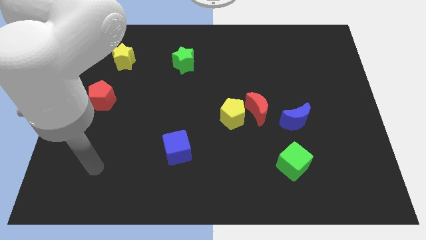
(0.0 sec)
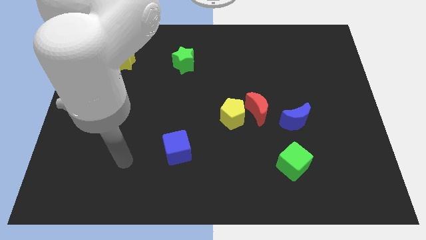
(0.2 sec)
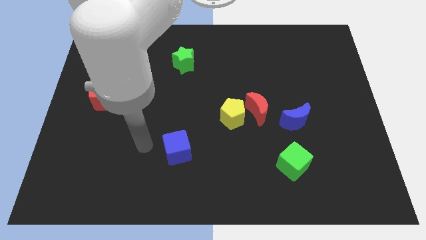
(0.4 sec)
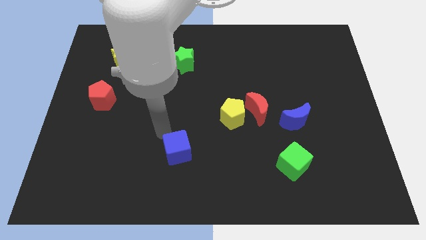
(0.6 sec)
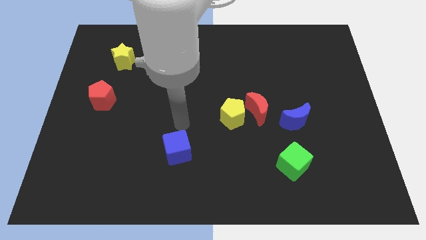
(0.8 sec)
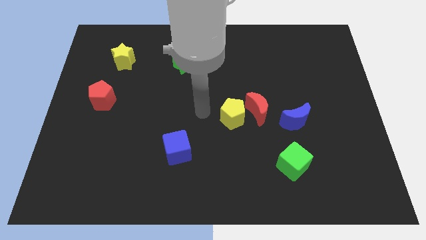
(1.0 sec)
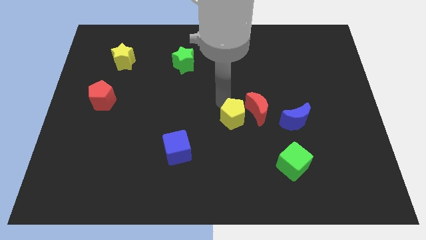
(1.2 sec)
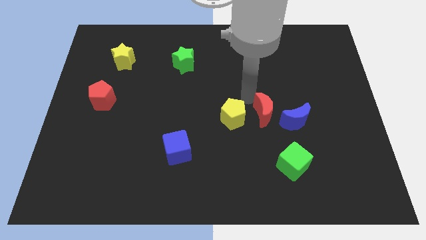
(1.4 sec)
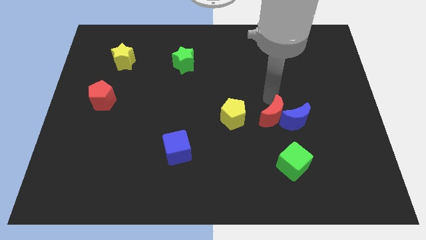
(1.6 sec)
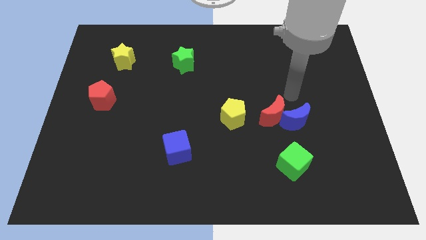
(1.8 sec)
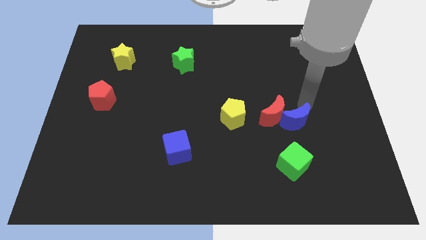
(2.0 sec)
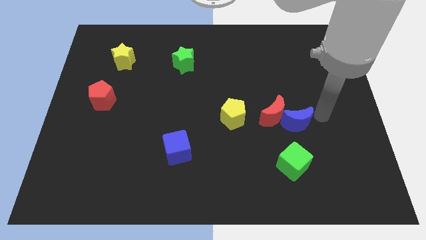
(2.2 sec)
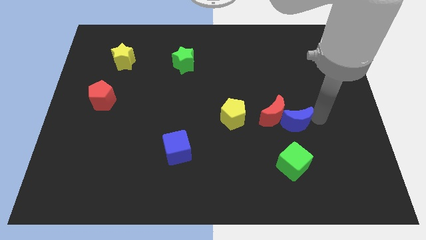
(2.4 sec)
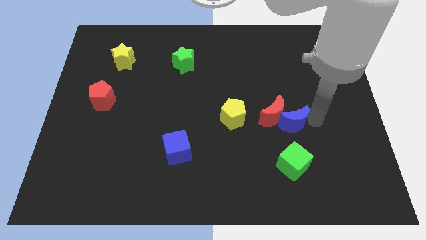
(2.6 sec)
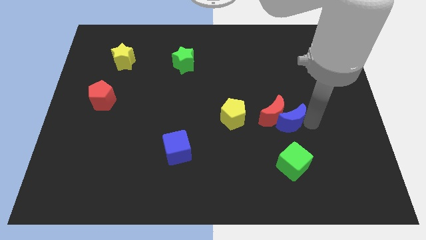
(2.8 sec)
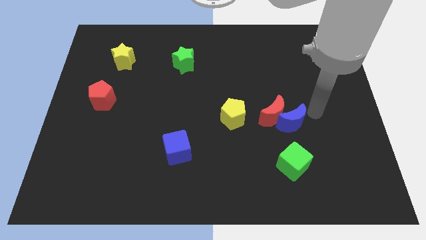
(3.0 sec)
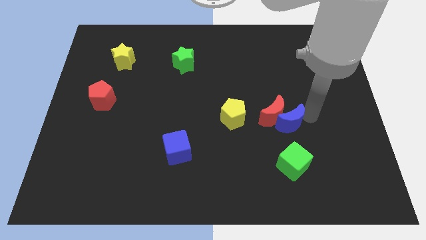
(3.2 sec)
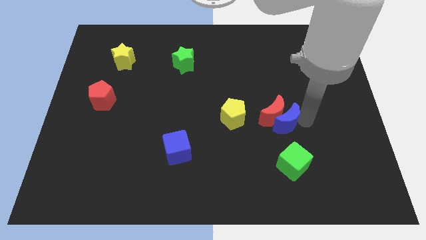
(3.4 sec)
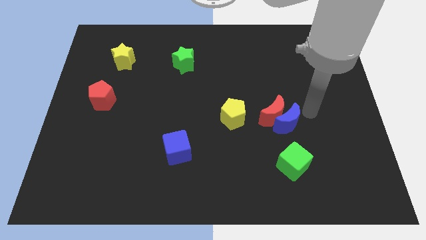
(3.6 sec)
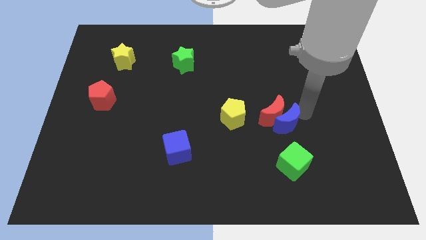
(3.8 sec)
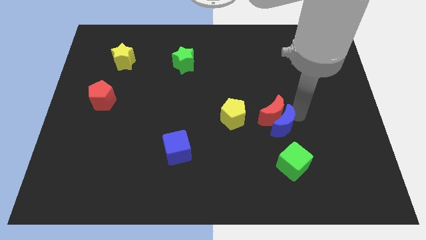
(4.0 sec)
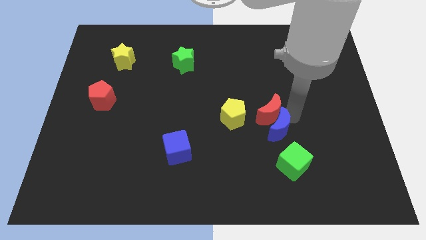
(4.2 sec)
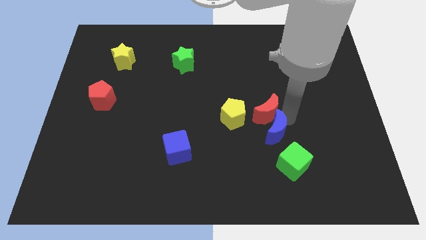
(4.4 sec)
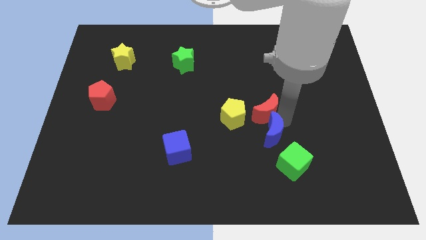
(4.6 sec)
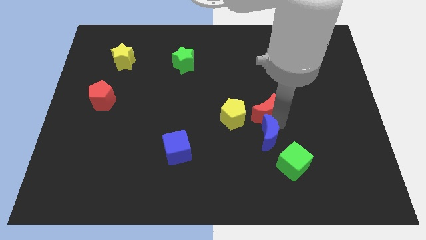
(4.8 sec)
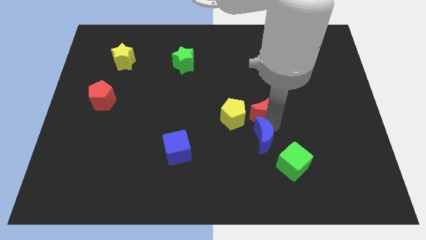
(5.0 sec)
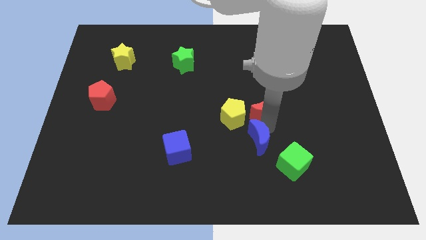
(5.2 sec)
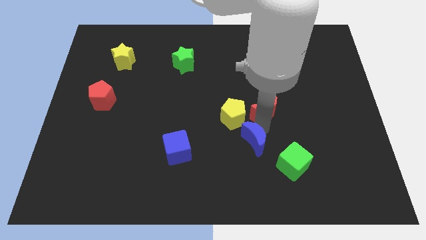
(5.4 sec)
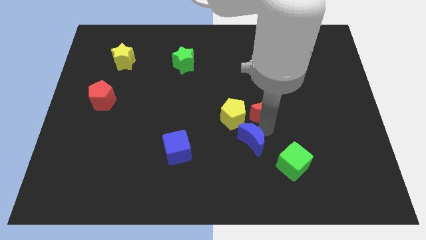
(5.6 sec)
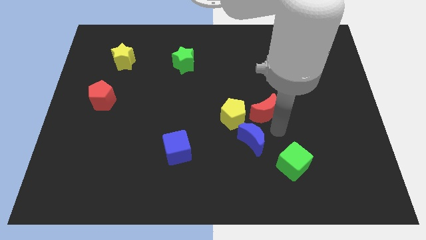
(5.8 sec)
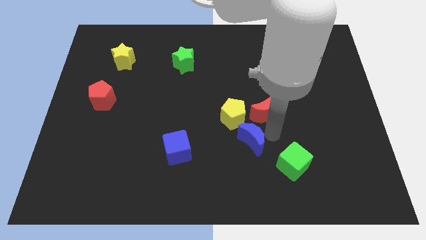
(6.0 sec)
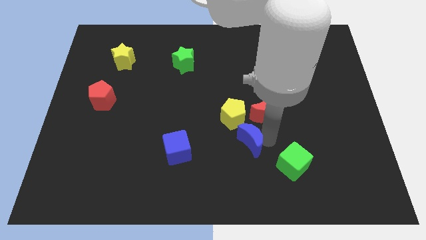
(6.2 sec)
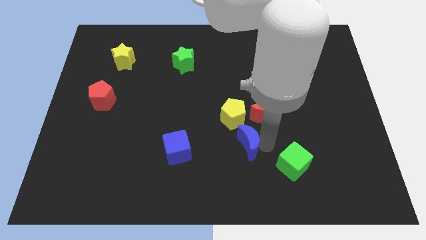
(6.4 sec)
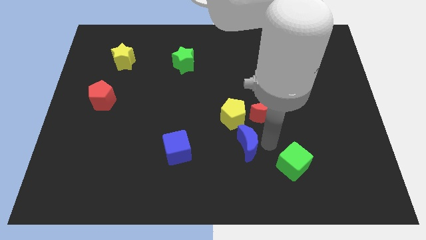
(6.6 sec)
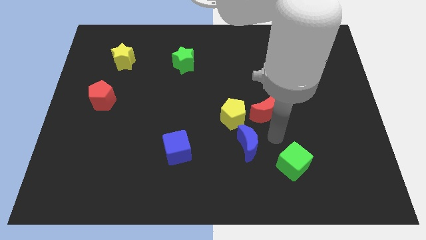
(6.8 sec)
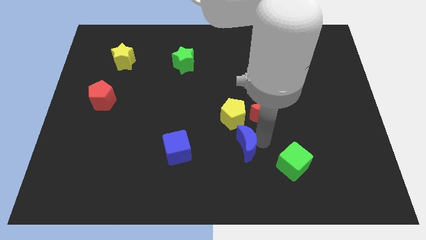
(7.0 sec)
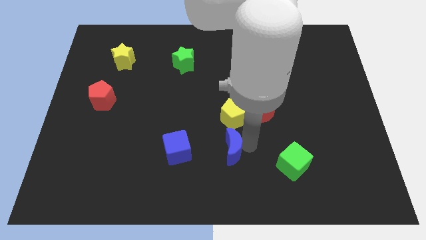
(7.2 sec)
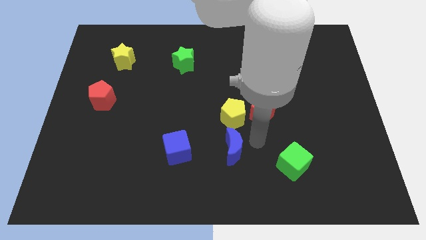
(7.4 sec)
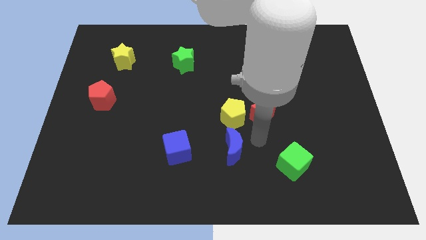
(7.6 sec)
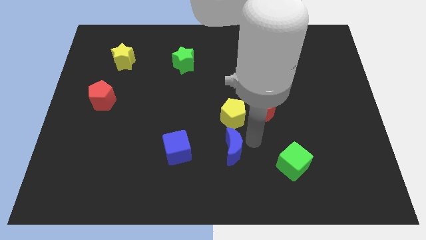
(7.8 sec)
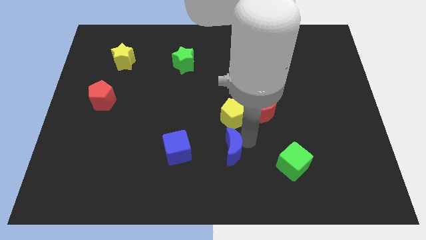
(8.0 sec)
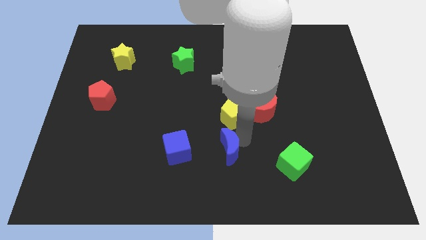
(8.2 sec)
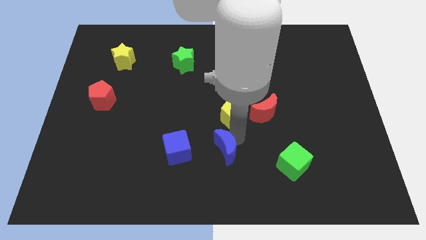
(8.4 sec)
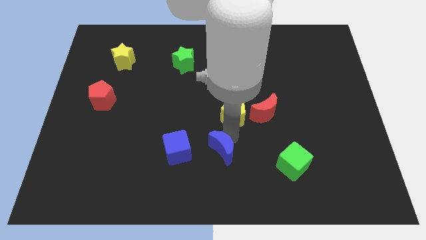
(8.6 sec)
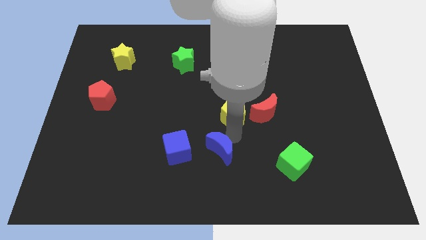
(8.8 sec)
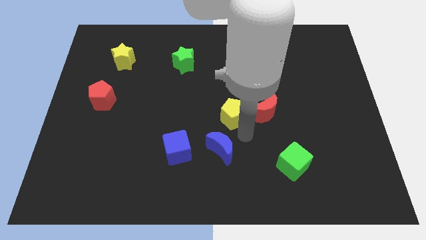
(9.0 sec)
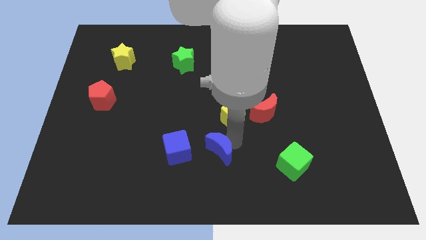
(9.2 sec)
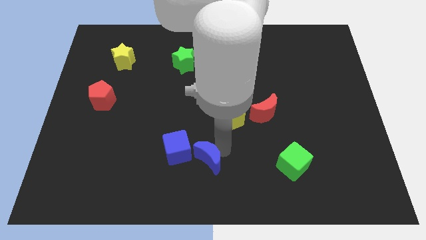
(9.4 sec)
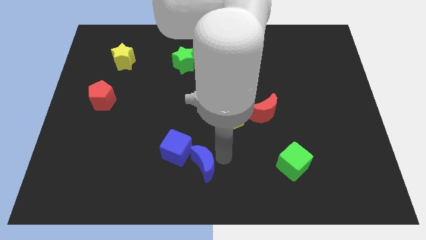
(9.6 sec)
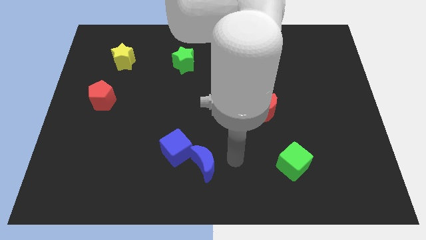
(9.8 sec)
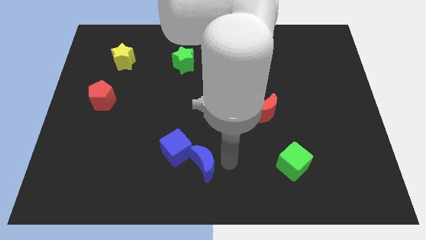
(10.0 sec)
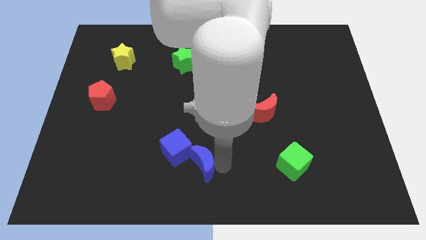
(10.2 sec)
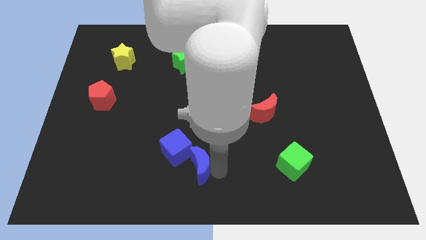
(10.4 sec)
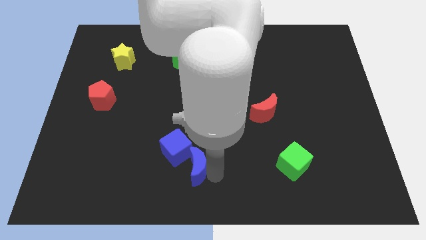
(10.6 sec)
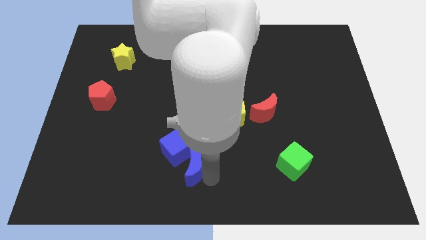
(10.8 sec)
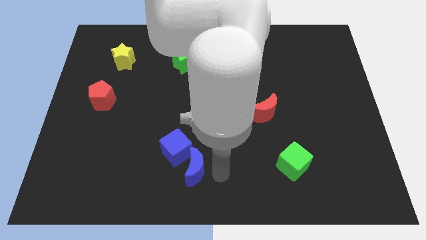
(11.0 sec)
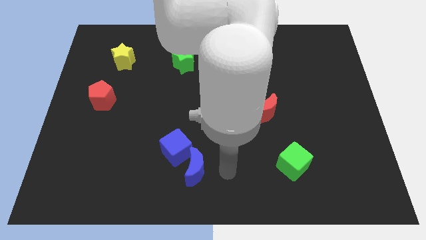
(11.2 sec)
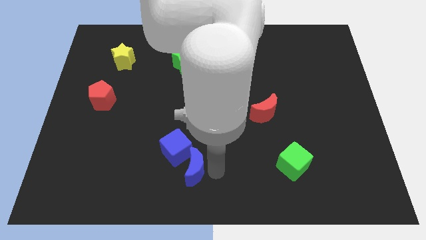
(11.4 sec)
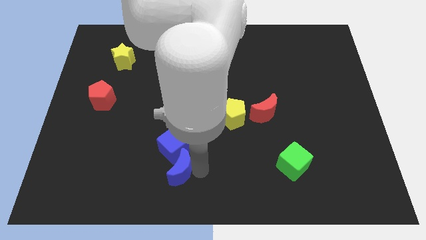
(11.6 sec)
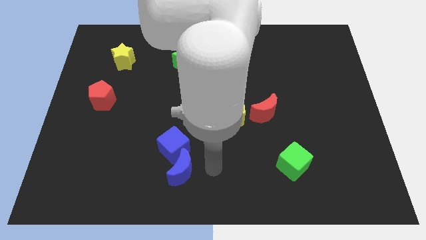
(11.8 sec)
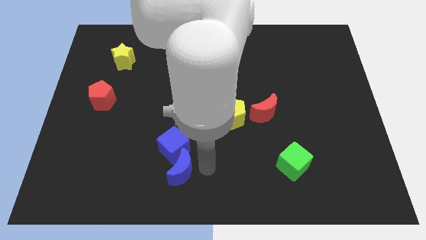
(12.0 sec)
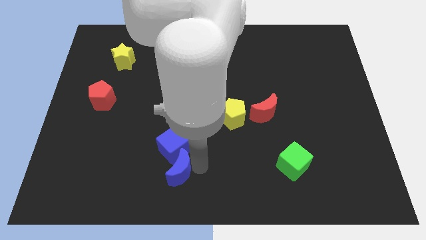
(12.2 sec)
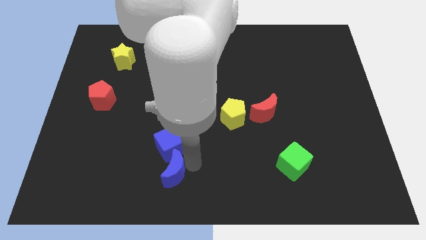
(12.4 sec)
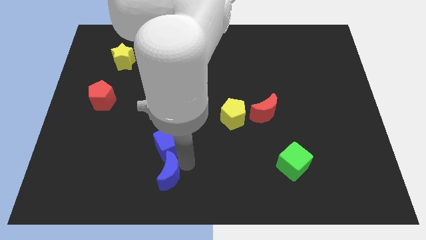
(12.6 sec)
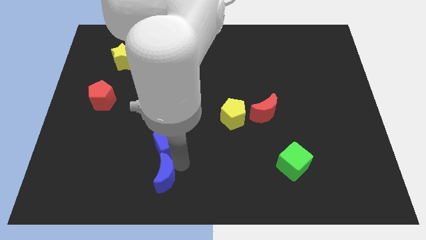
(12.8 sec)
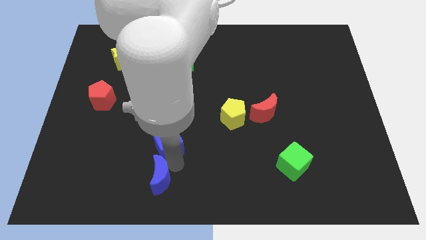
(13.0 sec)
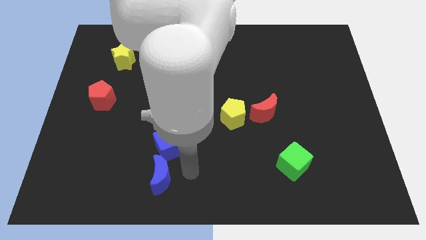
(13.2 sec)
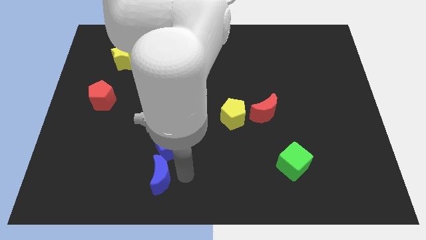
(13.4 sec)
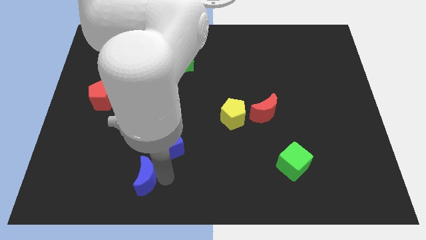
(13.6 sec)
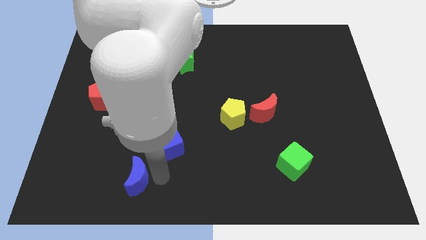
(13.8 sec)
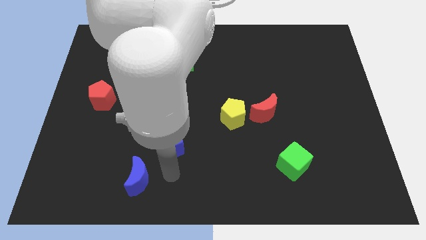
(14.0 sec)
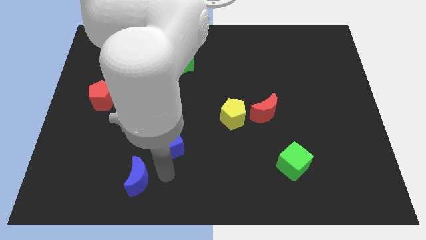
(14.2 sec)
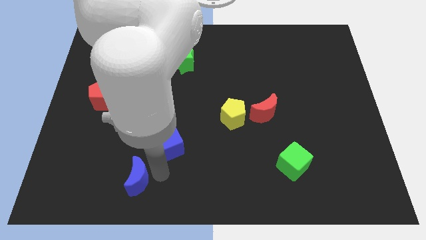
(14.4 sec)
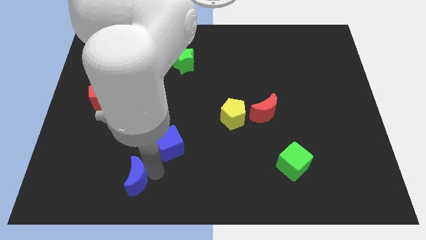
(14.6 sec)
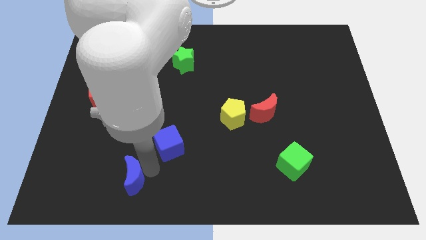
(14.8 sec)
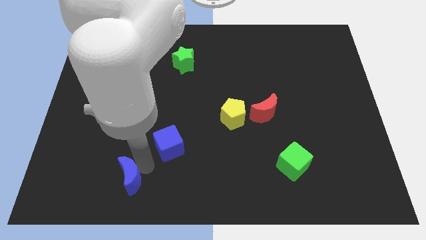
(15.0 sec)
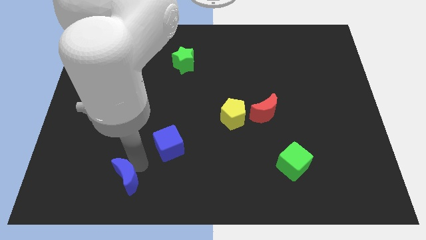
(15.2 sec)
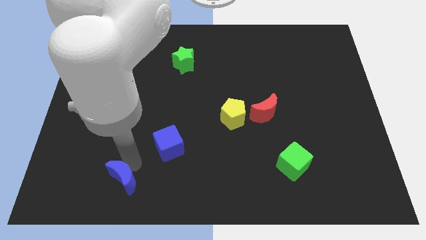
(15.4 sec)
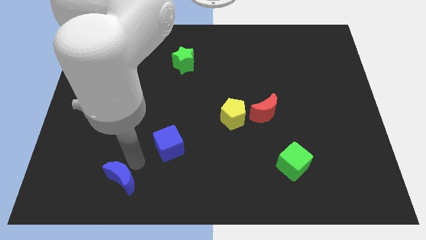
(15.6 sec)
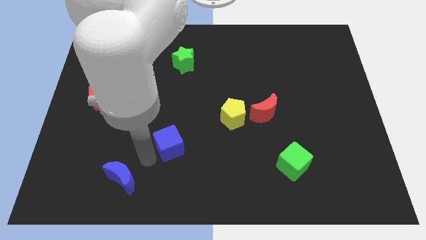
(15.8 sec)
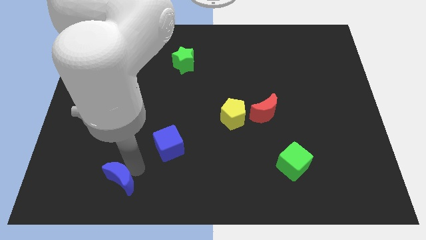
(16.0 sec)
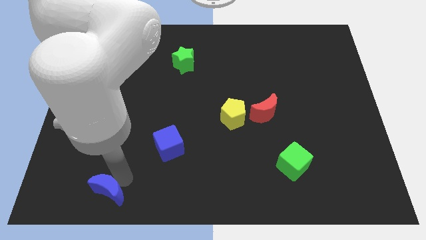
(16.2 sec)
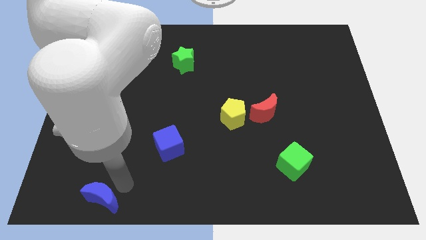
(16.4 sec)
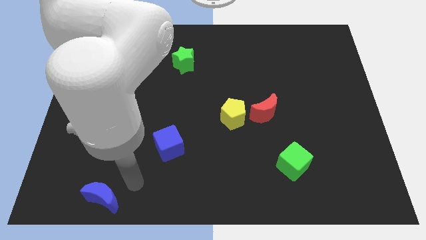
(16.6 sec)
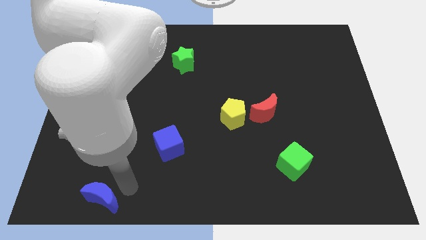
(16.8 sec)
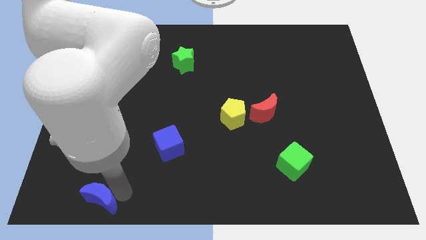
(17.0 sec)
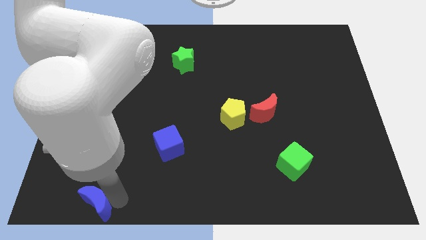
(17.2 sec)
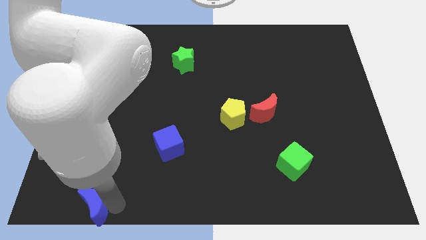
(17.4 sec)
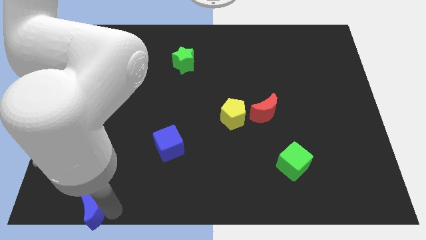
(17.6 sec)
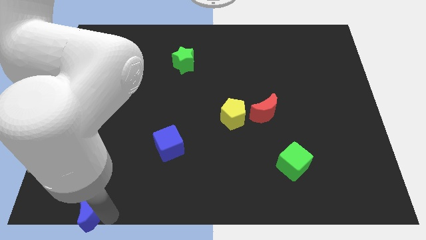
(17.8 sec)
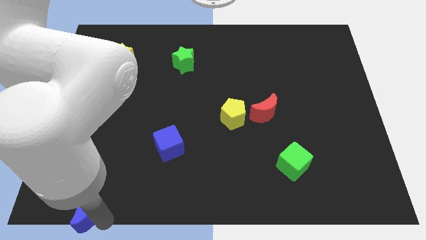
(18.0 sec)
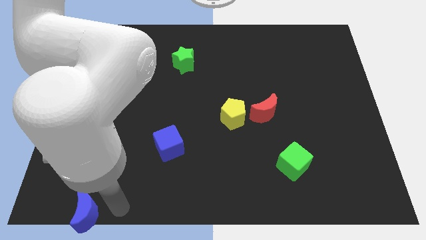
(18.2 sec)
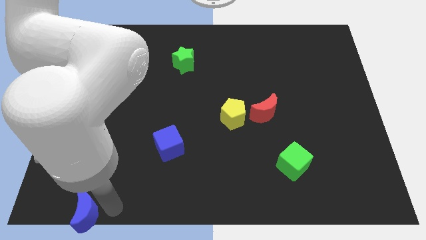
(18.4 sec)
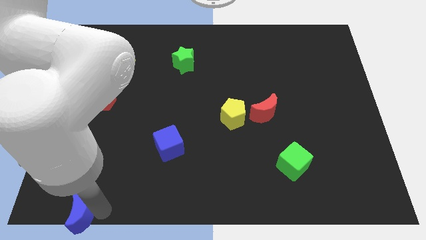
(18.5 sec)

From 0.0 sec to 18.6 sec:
put the blue moon to the bottom left of the board
